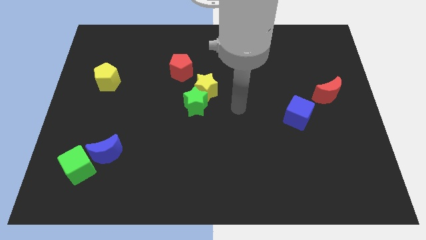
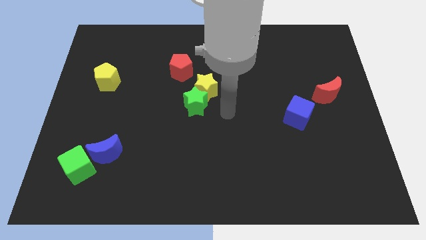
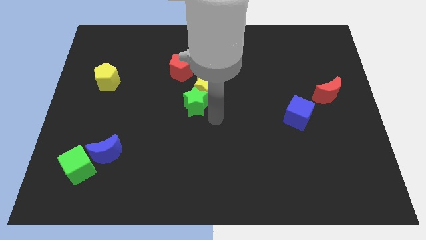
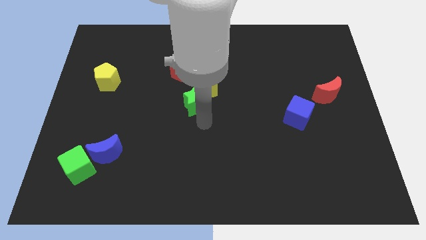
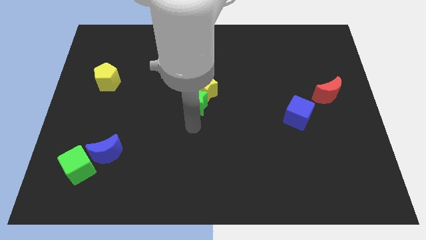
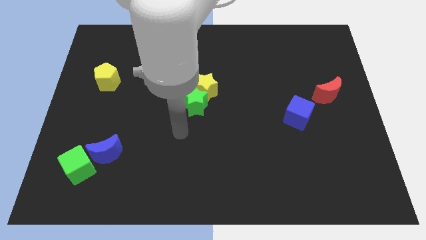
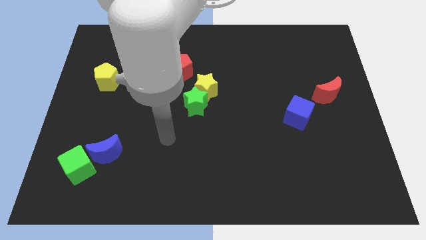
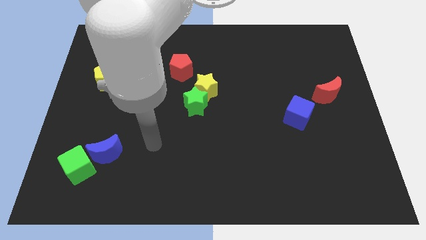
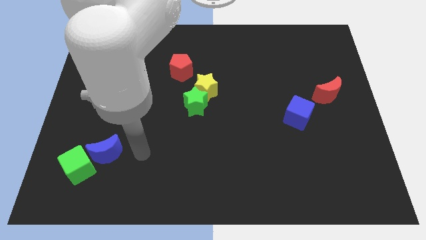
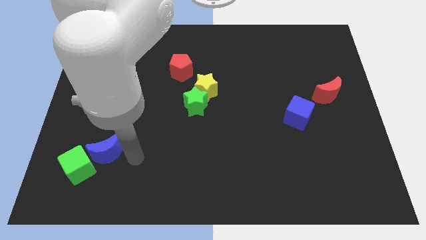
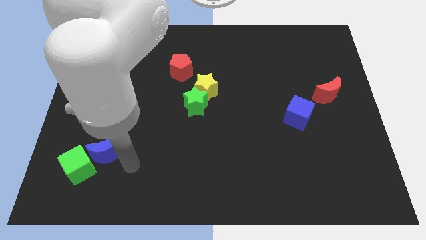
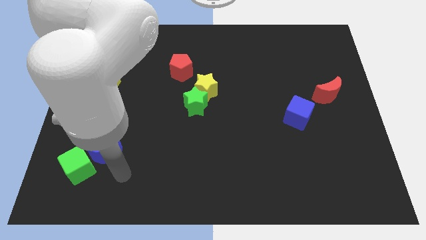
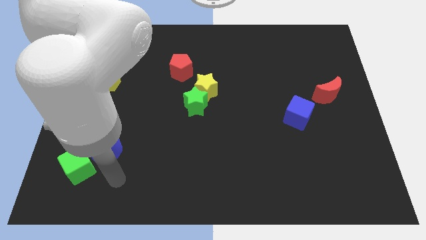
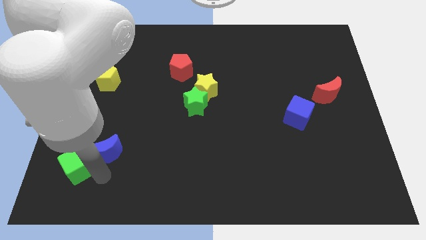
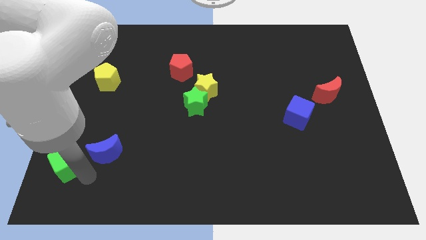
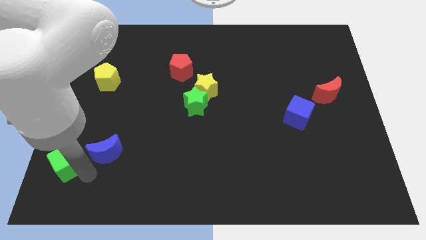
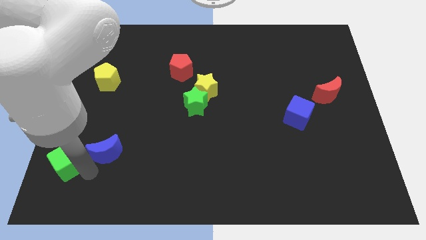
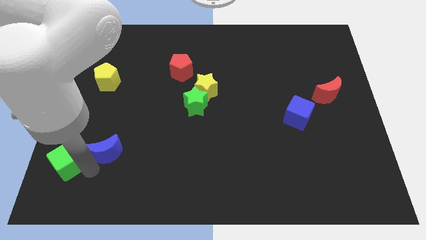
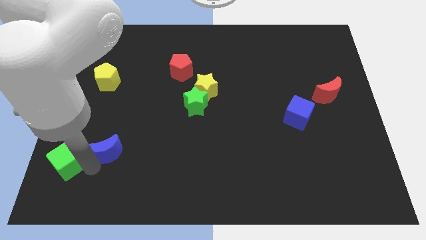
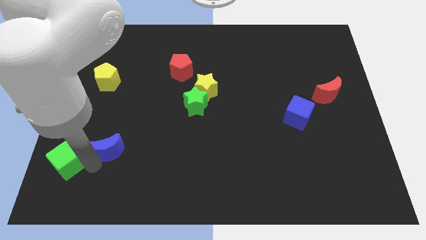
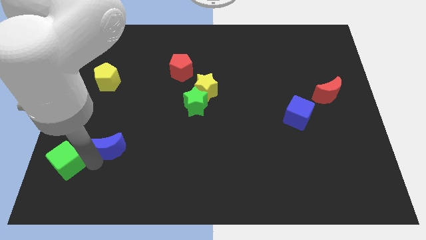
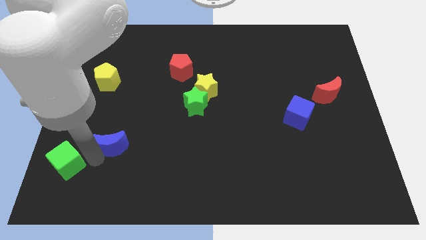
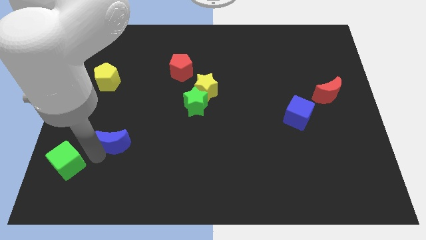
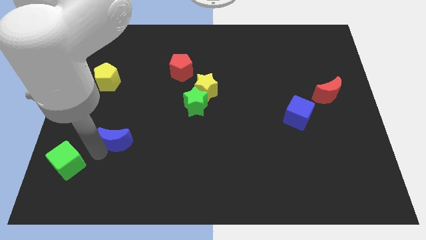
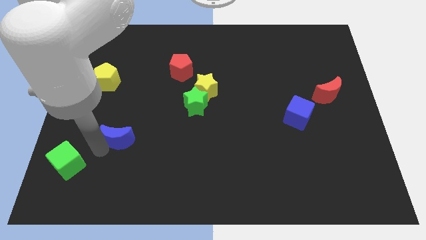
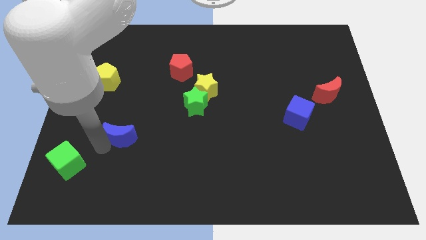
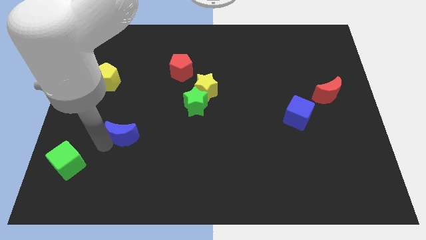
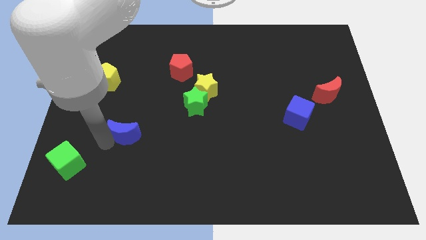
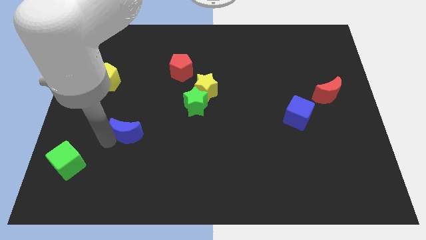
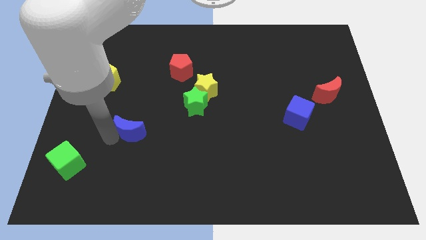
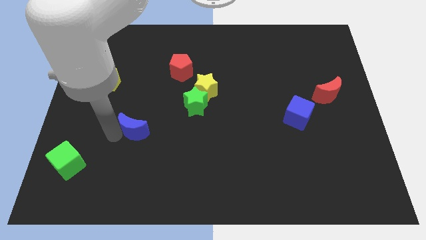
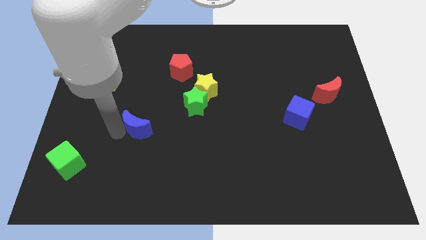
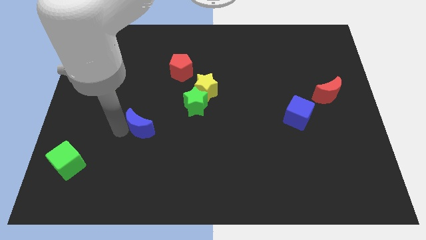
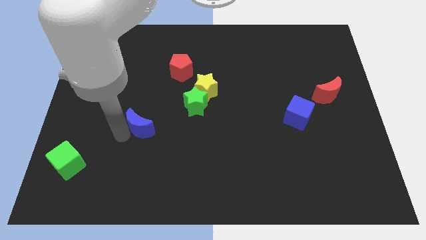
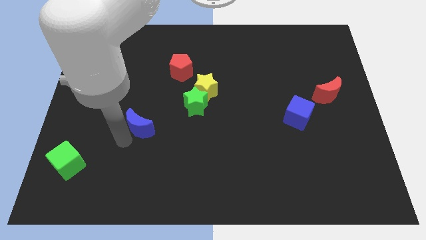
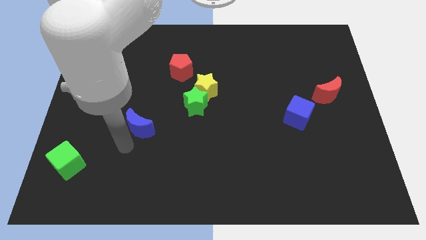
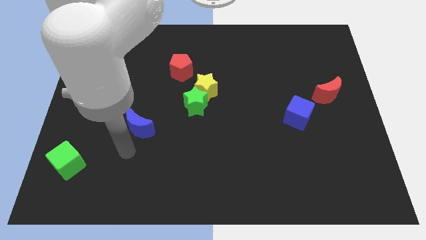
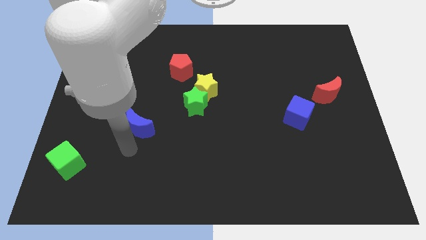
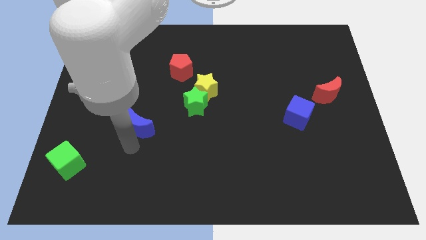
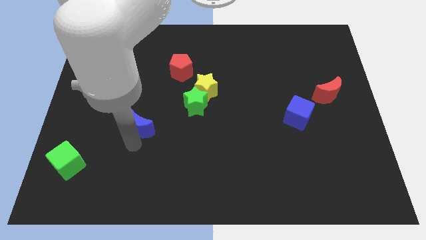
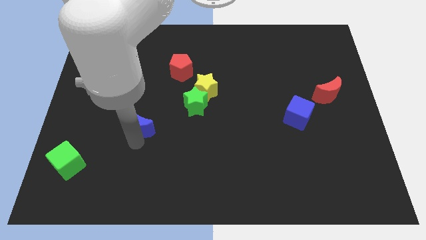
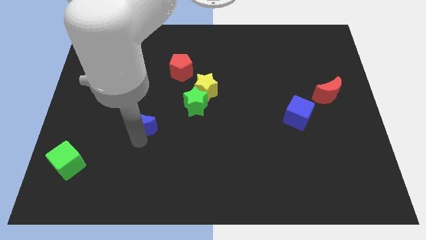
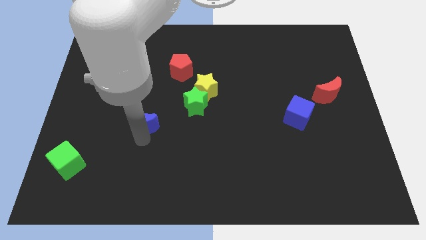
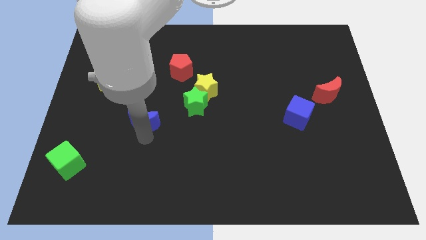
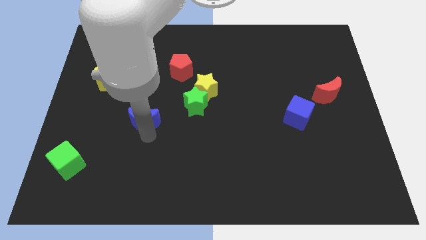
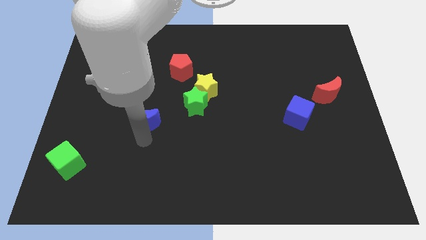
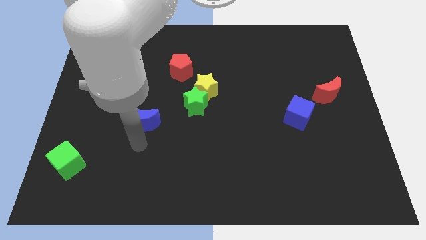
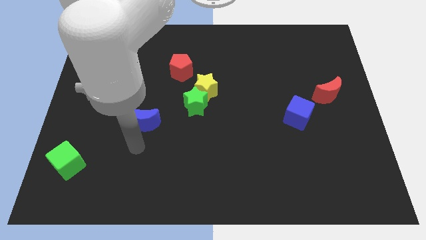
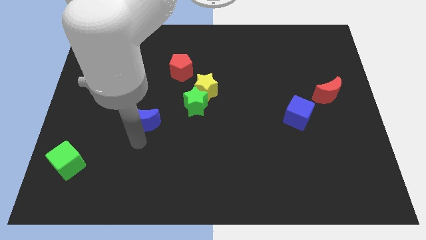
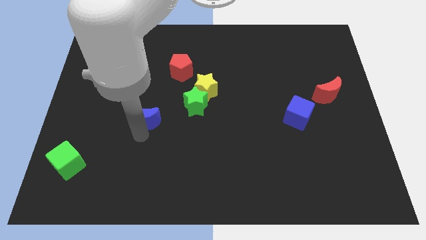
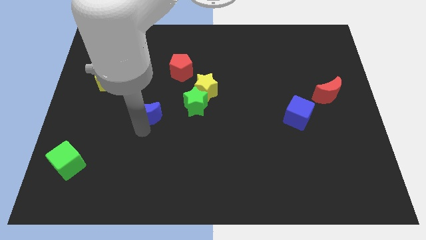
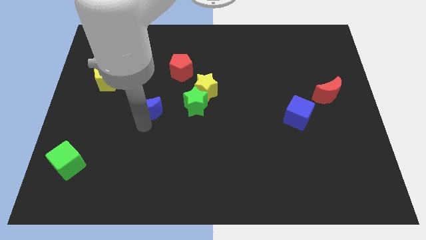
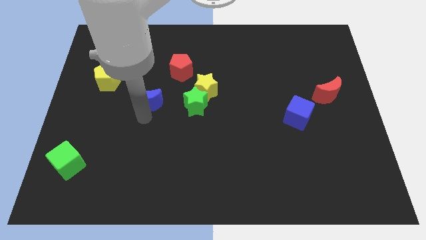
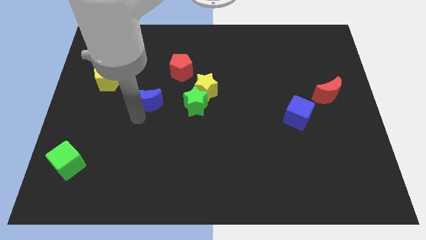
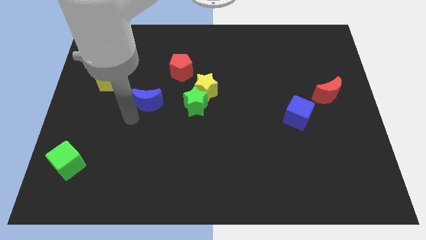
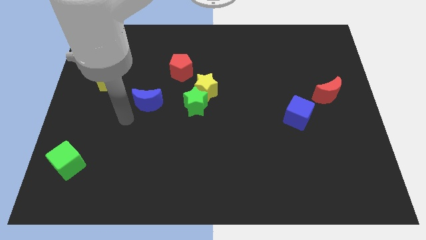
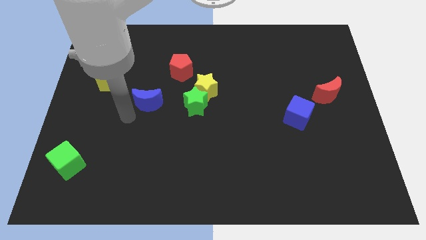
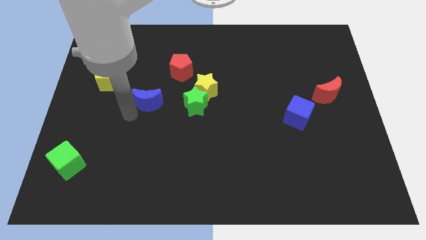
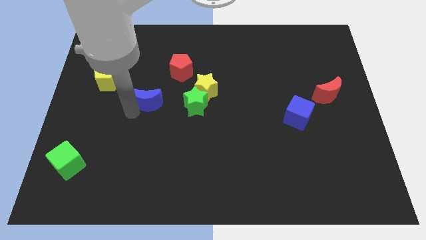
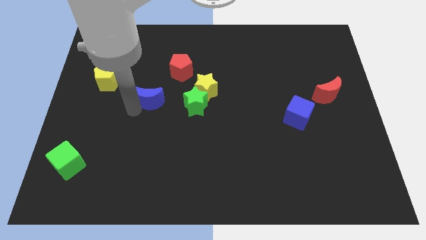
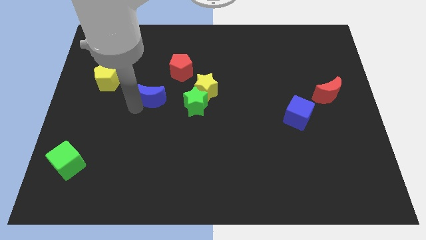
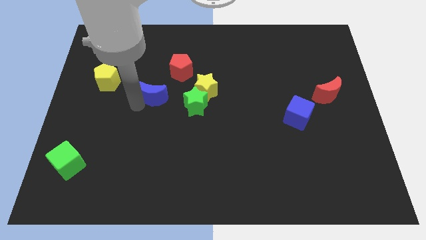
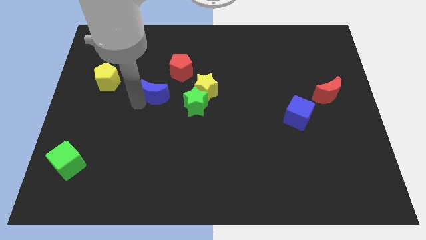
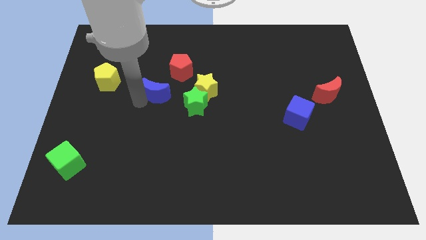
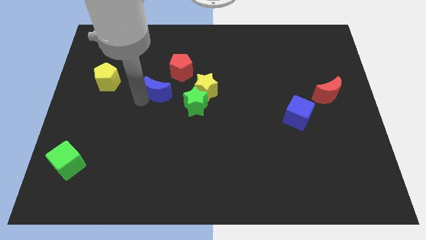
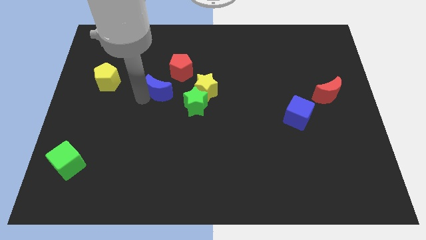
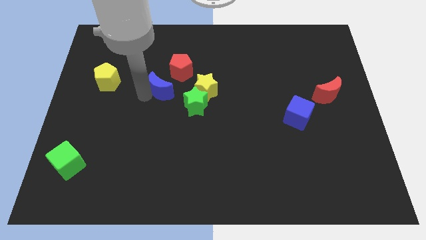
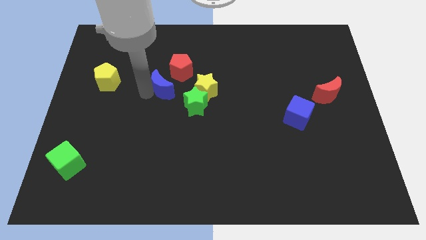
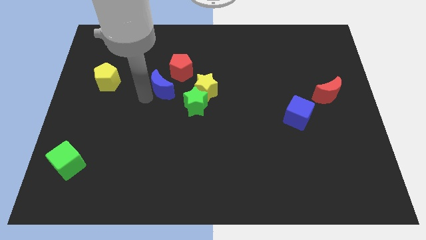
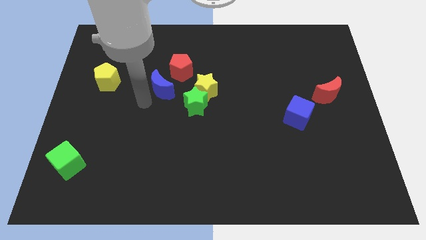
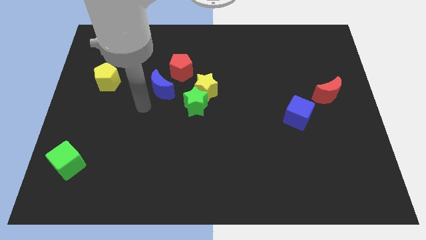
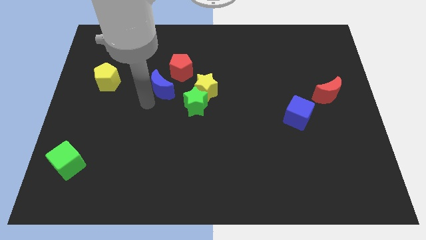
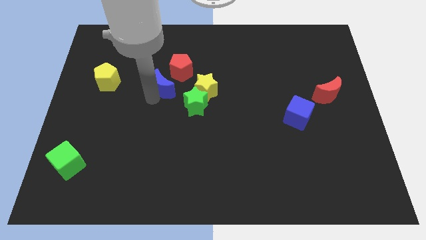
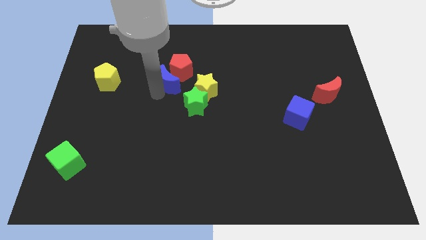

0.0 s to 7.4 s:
move the blue moon to the red pentagon

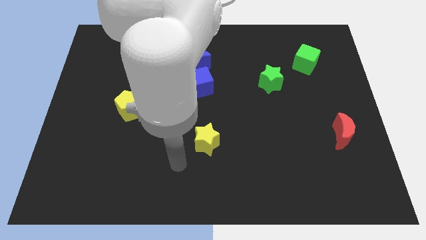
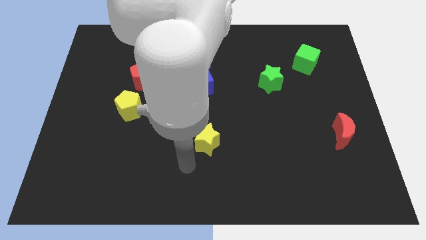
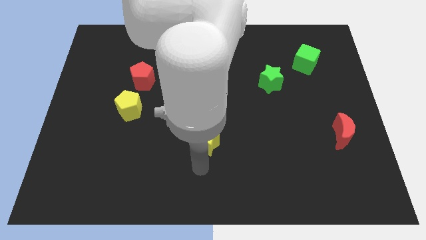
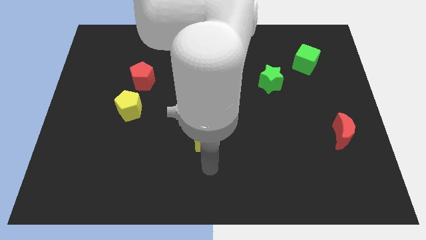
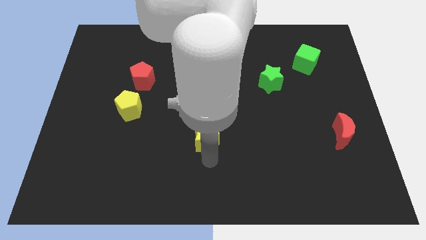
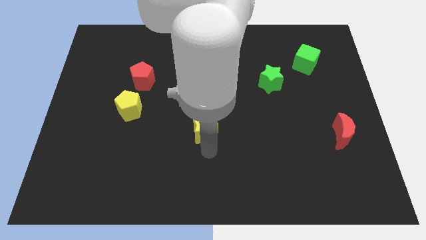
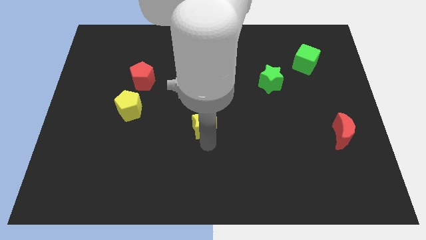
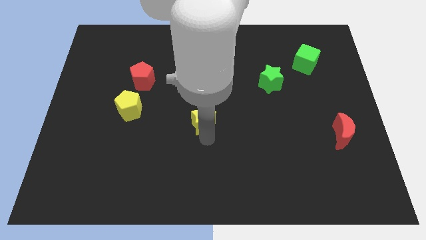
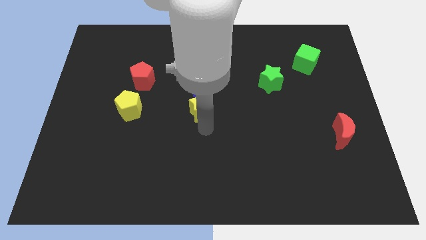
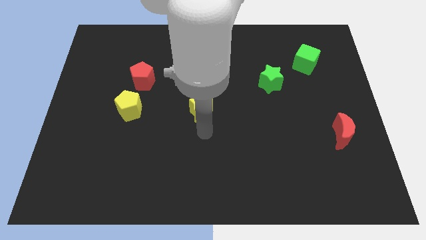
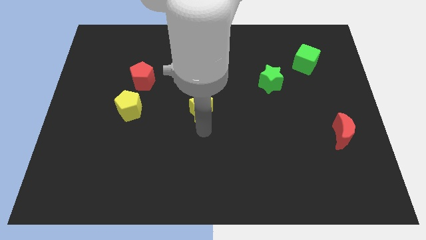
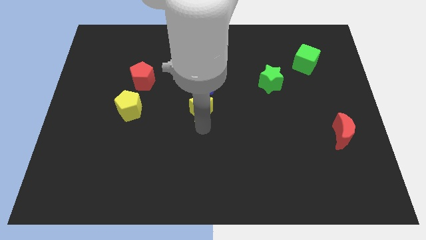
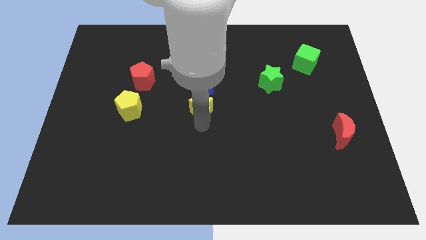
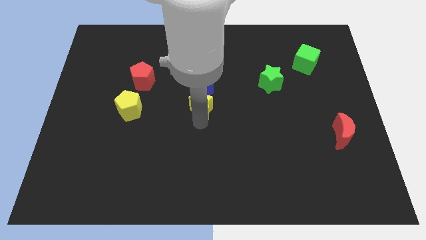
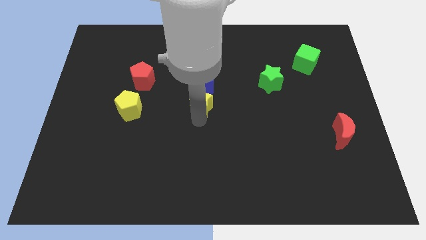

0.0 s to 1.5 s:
push the yellow star next to the blue cube
